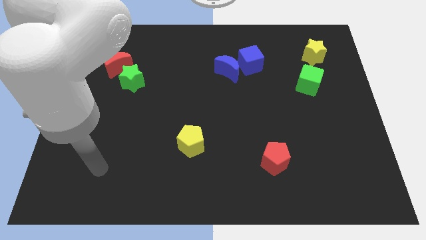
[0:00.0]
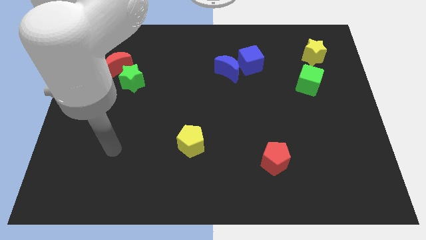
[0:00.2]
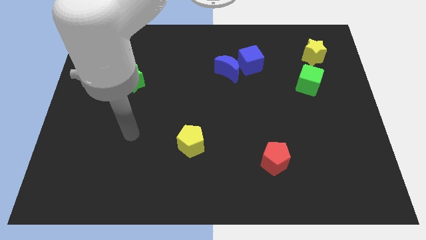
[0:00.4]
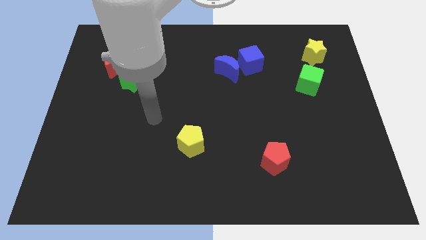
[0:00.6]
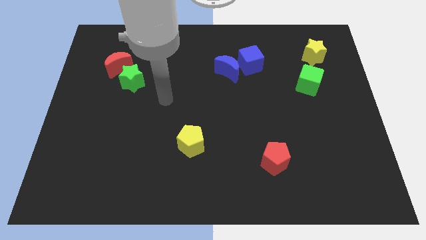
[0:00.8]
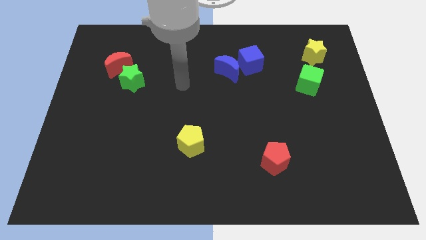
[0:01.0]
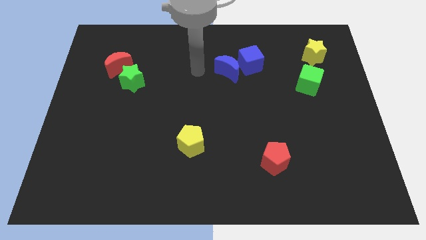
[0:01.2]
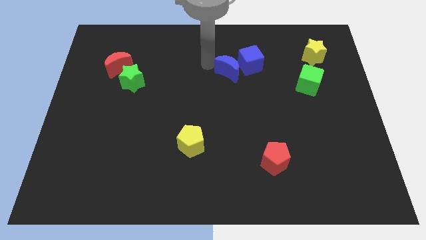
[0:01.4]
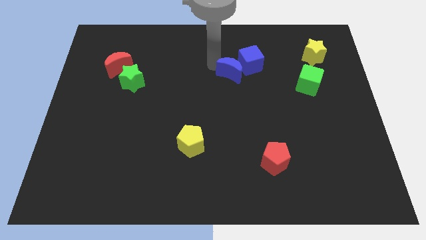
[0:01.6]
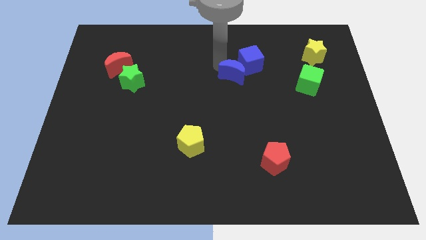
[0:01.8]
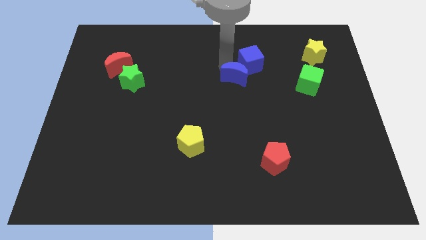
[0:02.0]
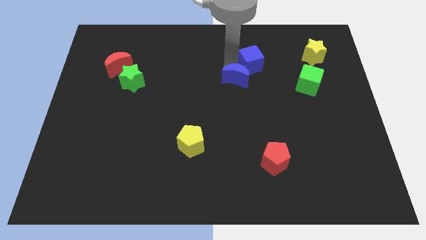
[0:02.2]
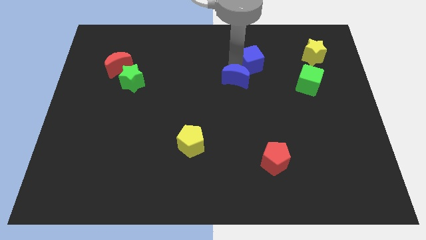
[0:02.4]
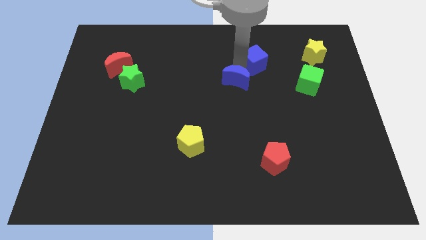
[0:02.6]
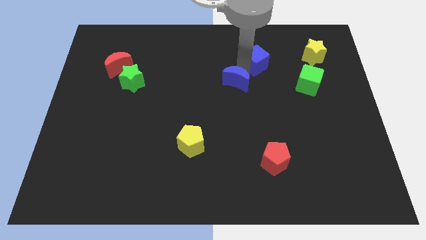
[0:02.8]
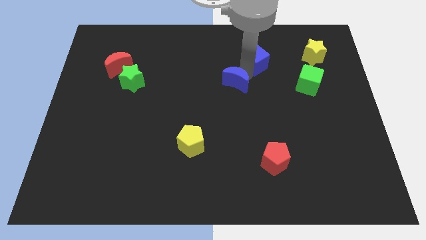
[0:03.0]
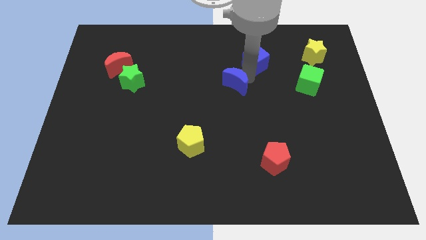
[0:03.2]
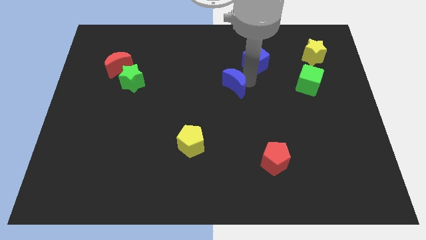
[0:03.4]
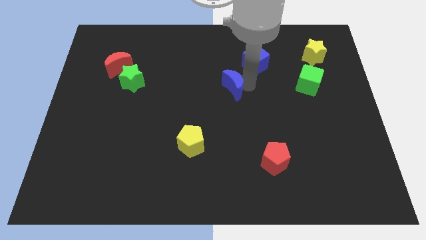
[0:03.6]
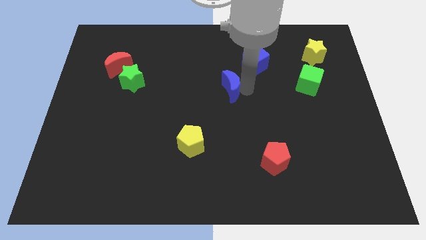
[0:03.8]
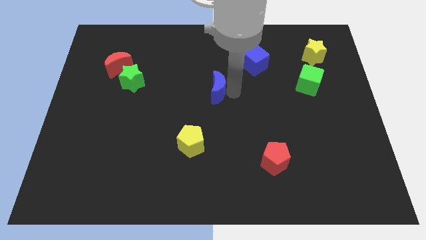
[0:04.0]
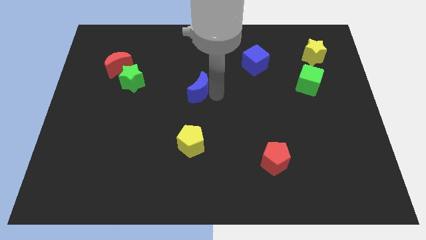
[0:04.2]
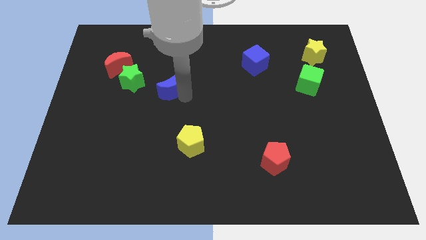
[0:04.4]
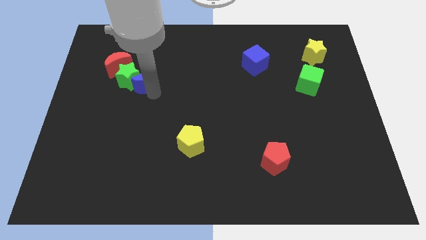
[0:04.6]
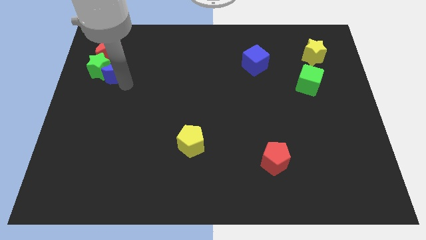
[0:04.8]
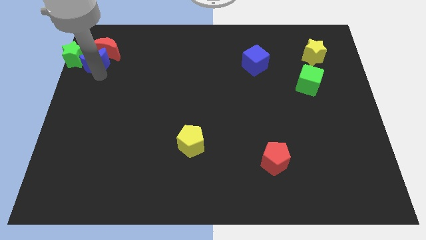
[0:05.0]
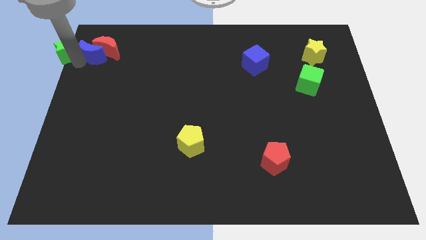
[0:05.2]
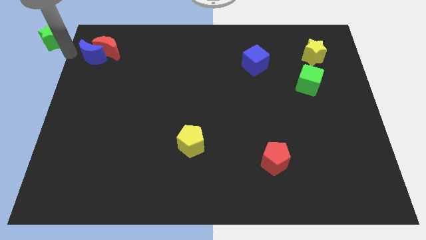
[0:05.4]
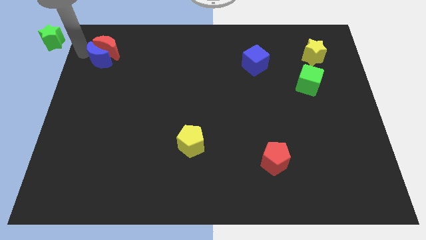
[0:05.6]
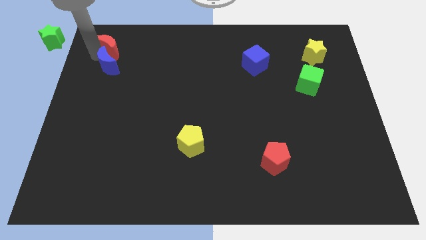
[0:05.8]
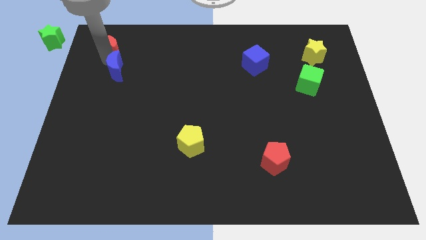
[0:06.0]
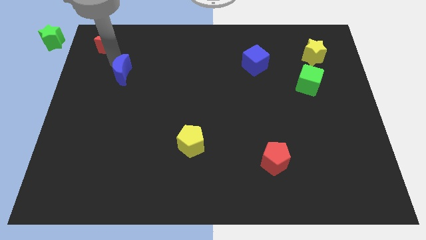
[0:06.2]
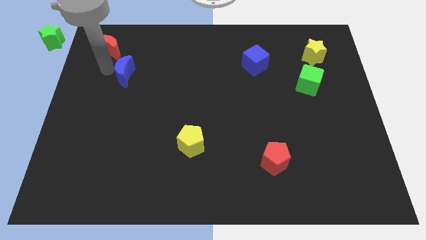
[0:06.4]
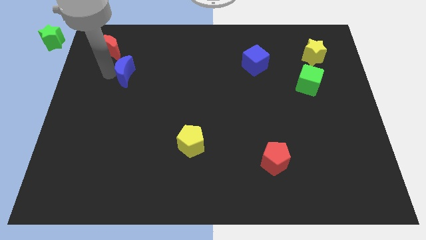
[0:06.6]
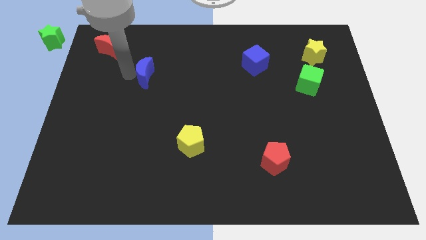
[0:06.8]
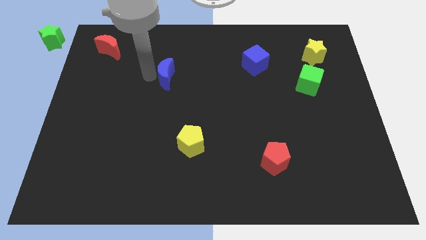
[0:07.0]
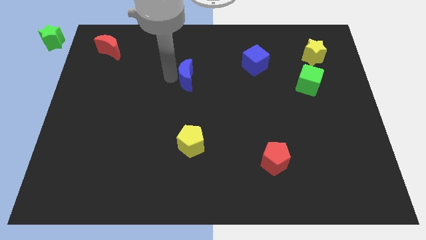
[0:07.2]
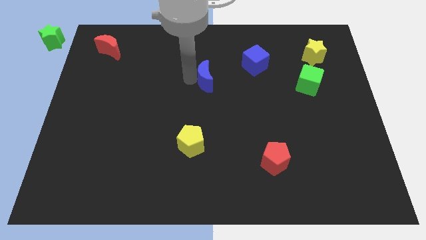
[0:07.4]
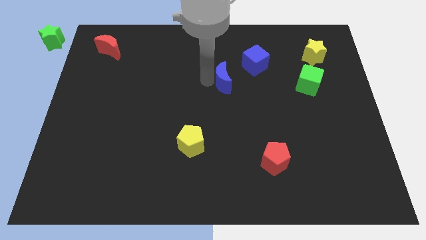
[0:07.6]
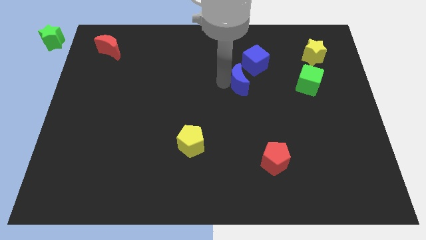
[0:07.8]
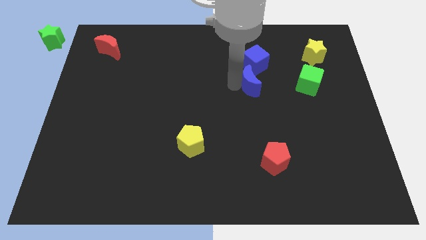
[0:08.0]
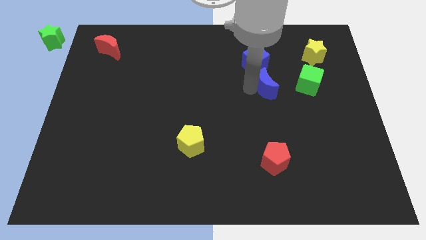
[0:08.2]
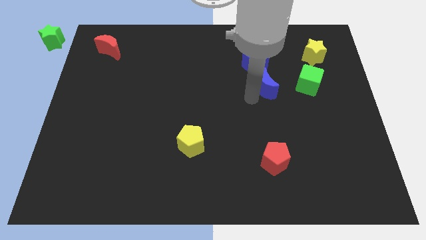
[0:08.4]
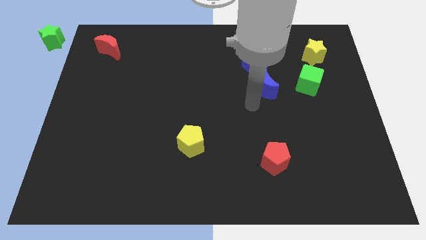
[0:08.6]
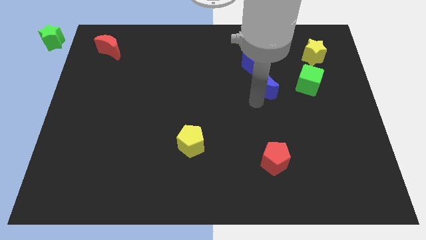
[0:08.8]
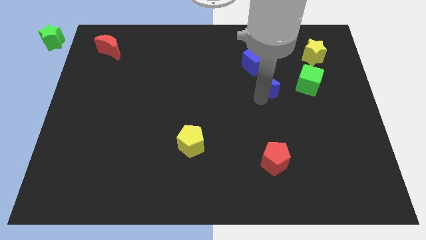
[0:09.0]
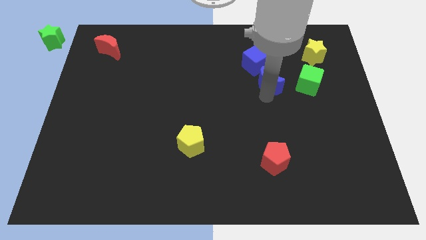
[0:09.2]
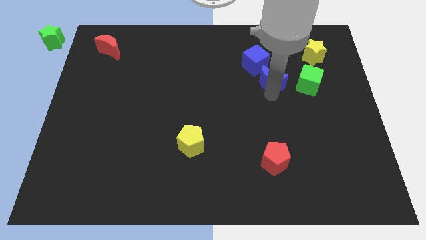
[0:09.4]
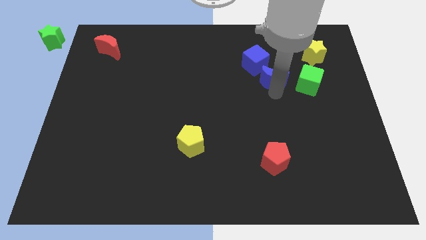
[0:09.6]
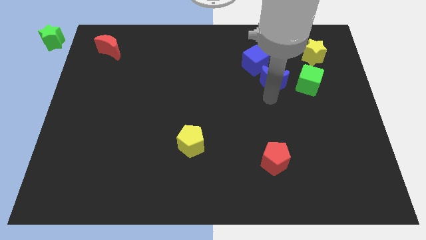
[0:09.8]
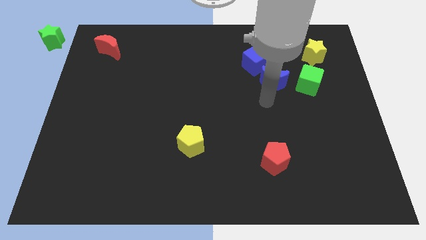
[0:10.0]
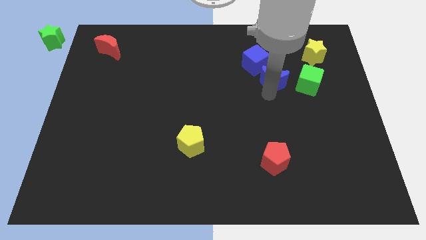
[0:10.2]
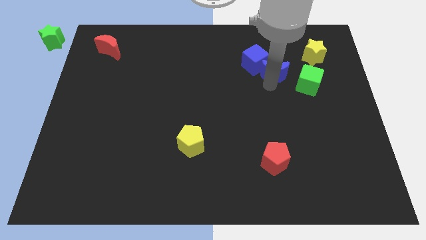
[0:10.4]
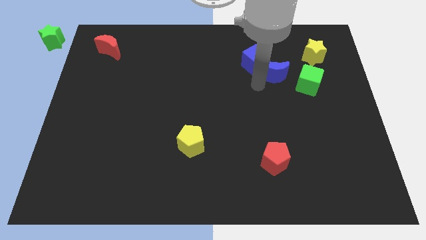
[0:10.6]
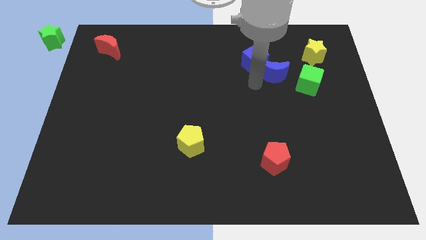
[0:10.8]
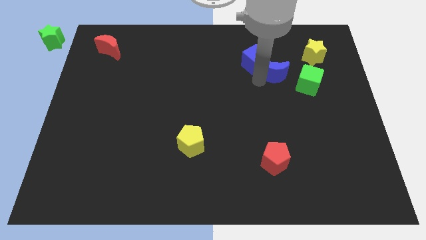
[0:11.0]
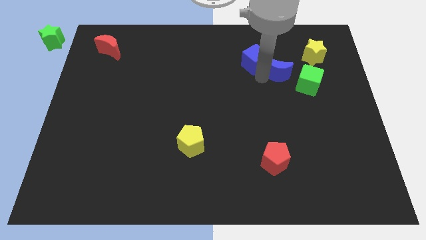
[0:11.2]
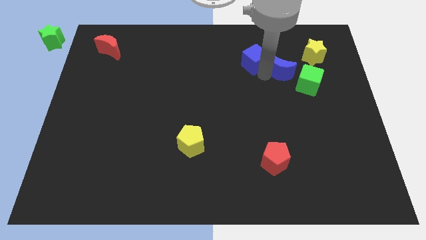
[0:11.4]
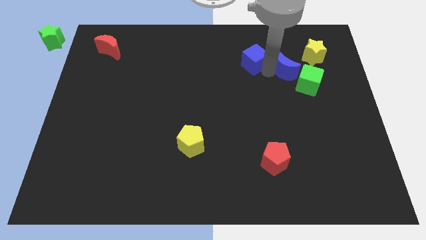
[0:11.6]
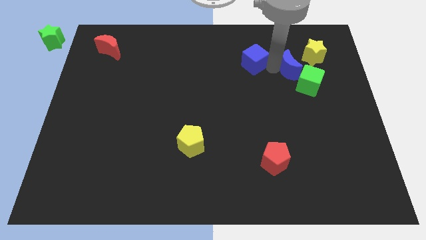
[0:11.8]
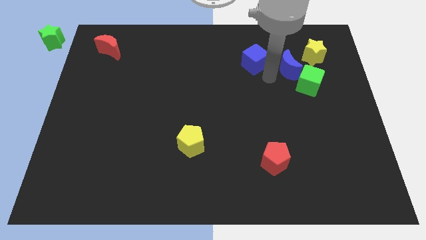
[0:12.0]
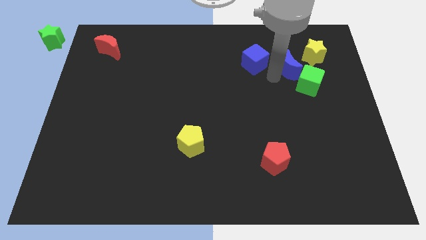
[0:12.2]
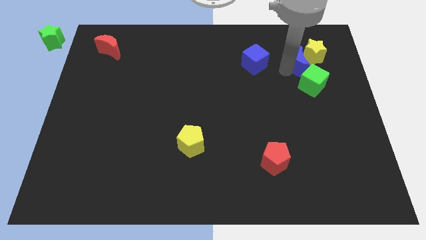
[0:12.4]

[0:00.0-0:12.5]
push the blue moon to the yellow star

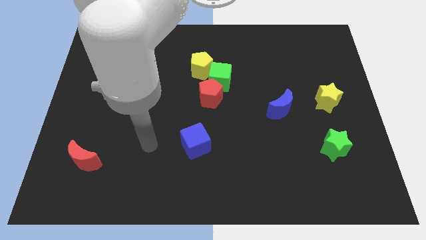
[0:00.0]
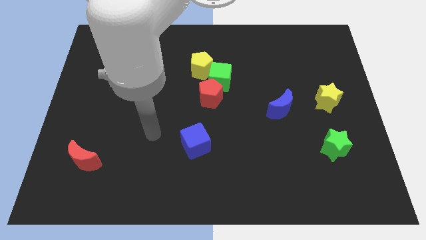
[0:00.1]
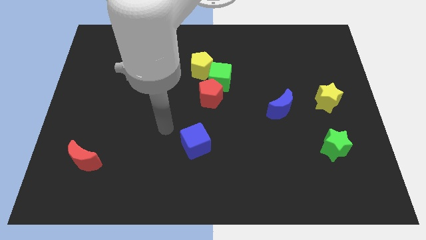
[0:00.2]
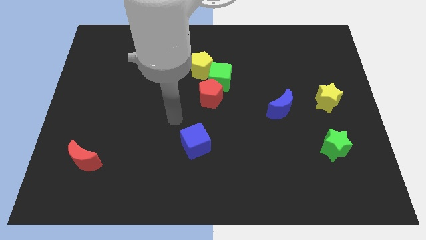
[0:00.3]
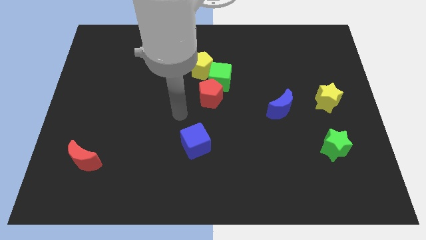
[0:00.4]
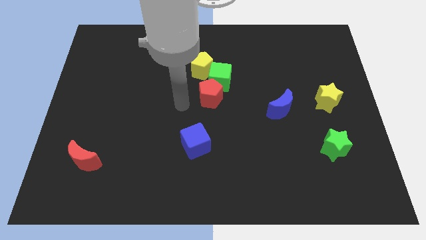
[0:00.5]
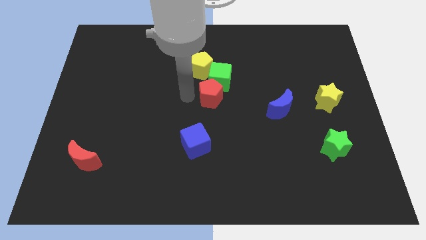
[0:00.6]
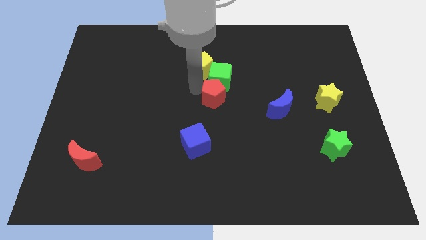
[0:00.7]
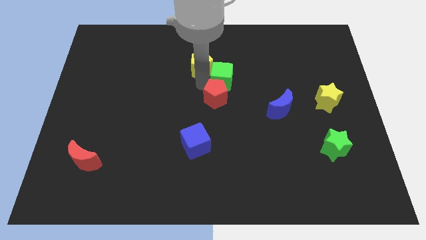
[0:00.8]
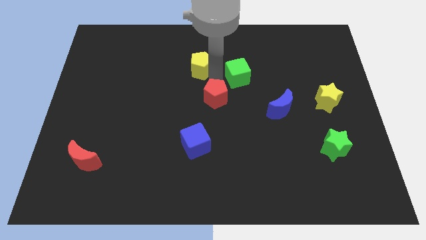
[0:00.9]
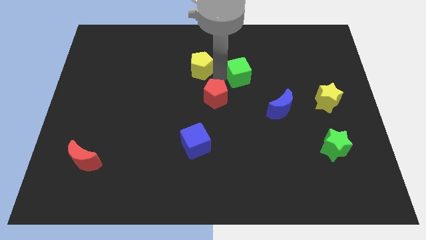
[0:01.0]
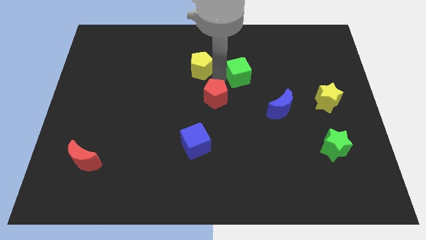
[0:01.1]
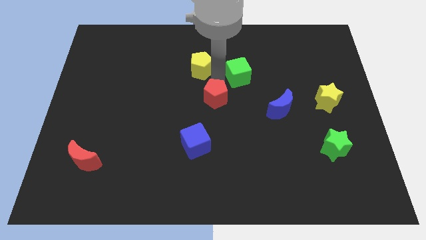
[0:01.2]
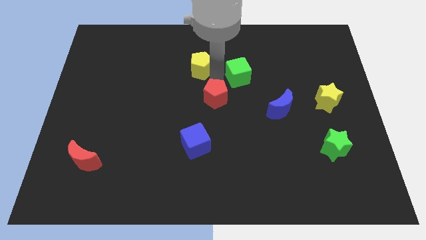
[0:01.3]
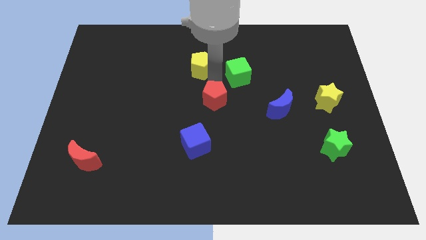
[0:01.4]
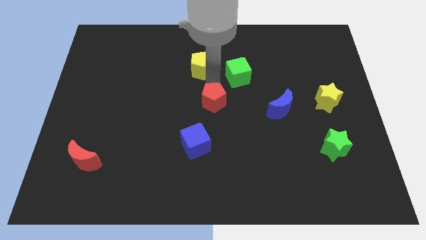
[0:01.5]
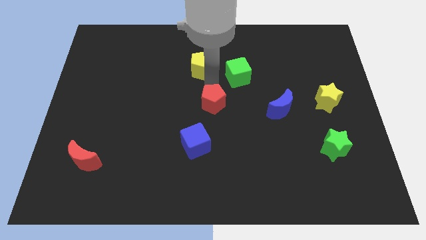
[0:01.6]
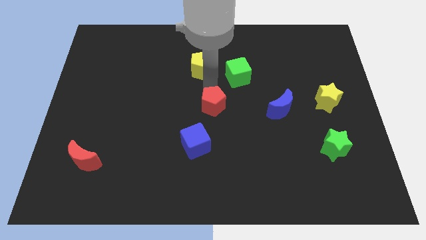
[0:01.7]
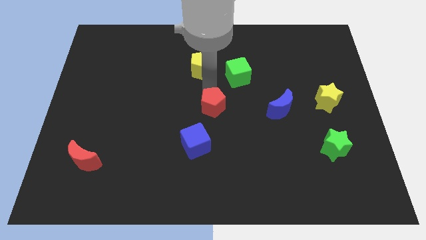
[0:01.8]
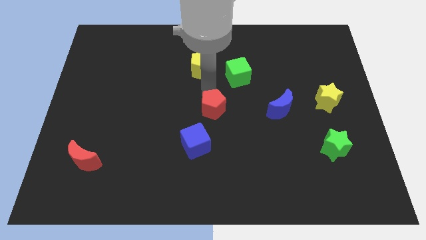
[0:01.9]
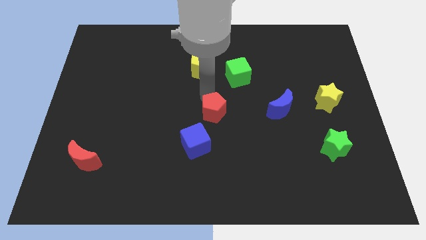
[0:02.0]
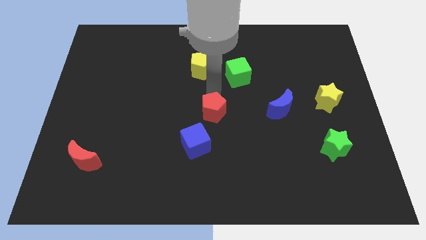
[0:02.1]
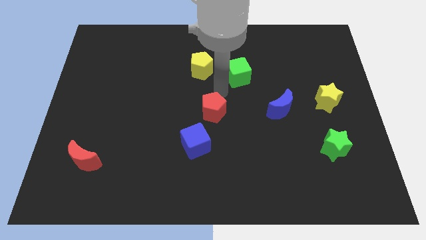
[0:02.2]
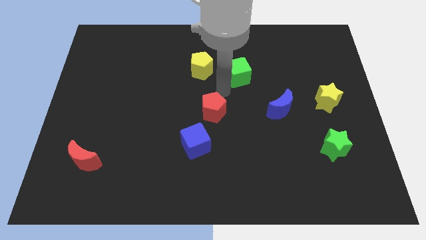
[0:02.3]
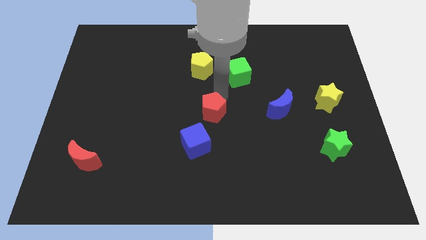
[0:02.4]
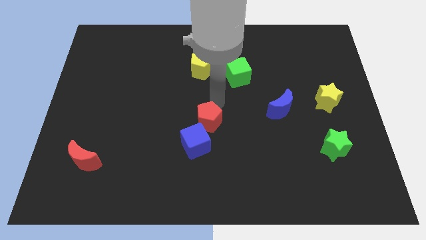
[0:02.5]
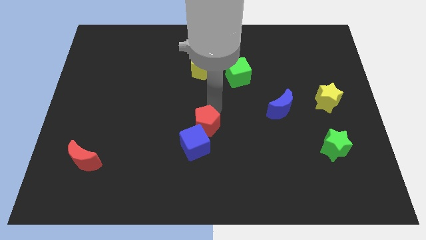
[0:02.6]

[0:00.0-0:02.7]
put the red pentagon to the blue cube
